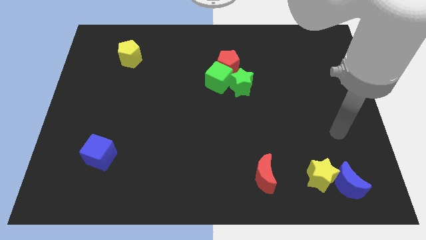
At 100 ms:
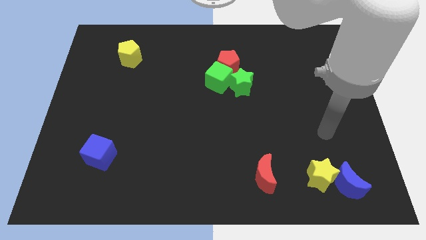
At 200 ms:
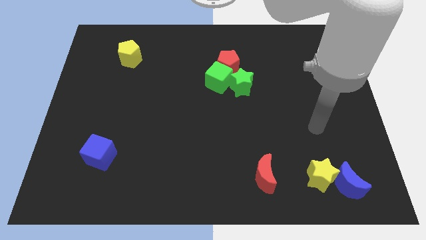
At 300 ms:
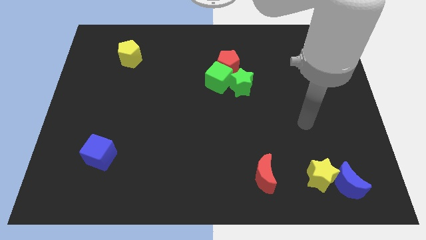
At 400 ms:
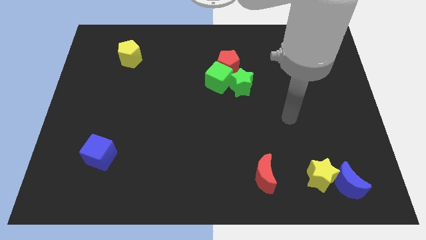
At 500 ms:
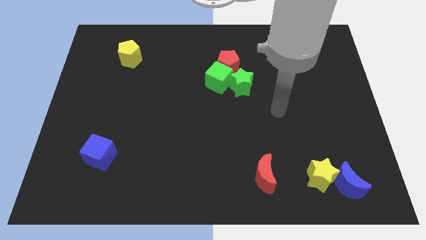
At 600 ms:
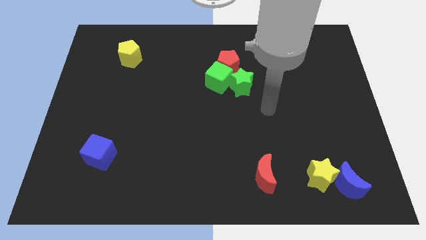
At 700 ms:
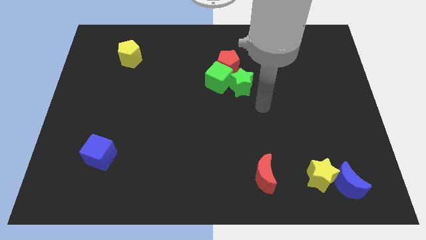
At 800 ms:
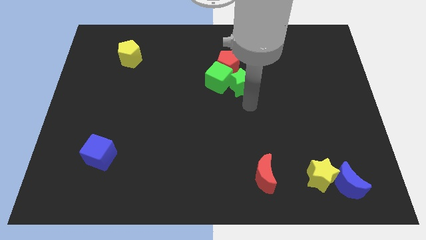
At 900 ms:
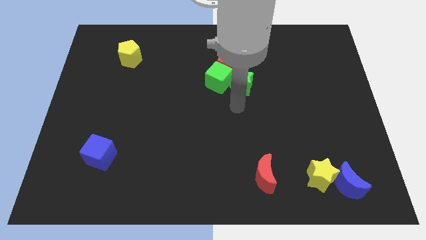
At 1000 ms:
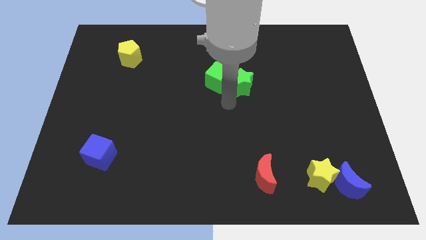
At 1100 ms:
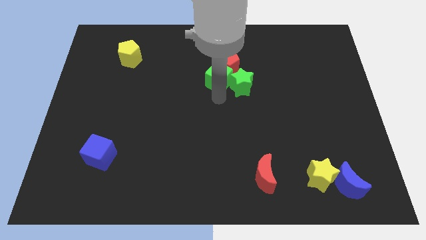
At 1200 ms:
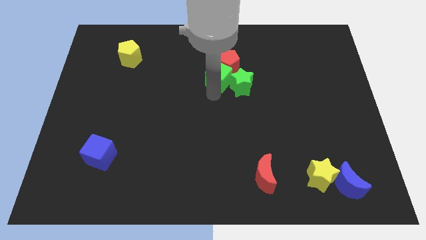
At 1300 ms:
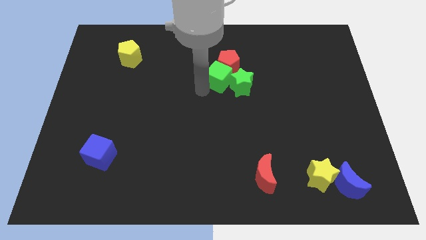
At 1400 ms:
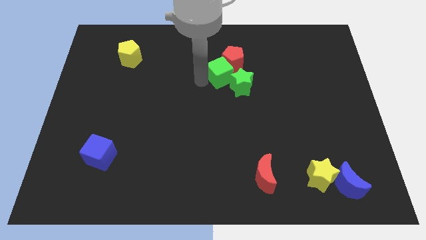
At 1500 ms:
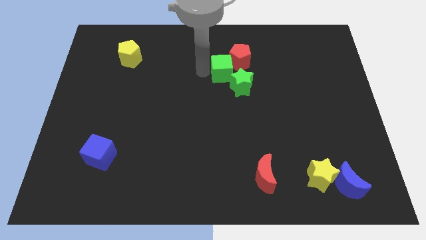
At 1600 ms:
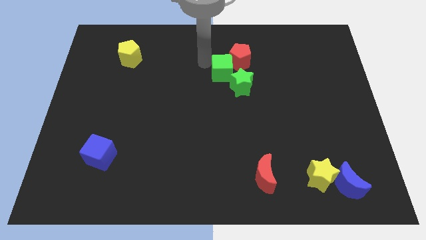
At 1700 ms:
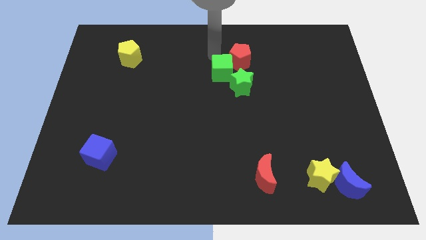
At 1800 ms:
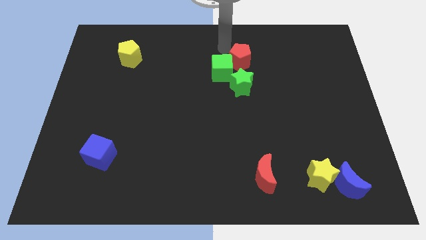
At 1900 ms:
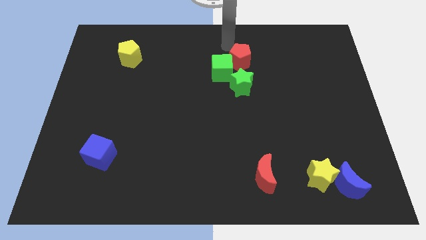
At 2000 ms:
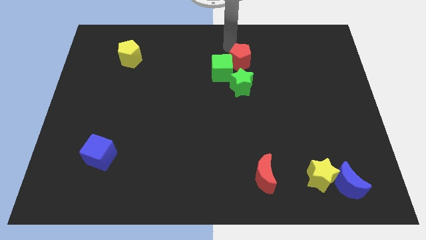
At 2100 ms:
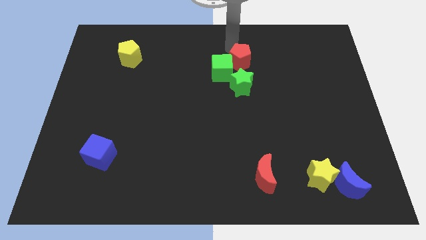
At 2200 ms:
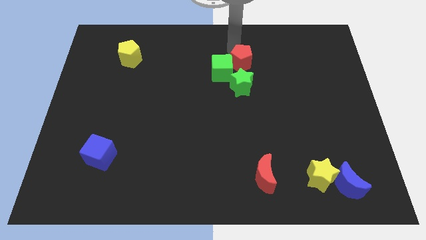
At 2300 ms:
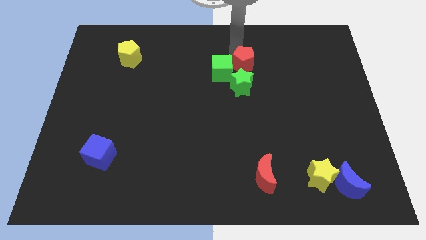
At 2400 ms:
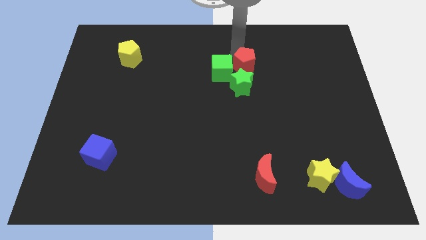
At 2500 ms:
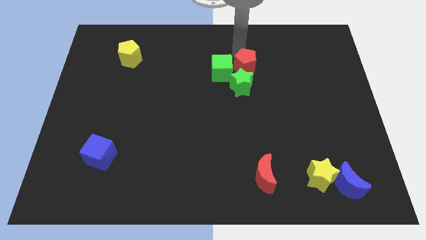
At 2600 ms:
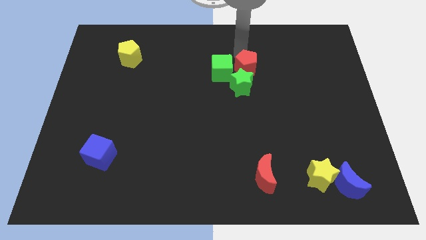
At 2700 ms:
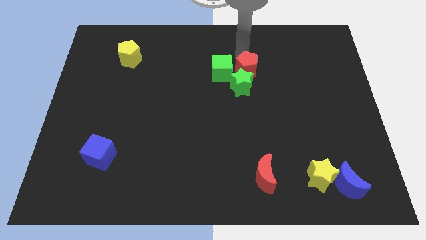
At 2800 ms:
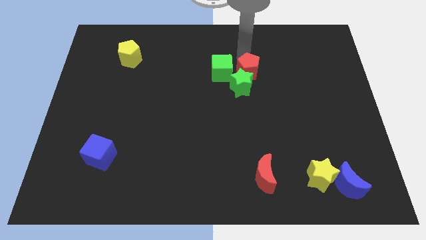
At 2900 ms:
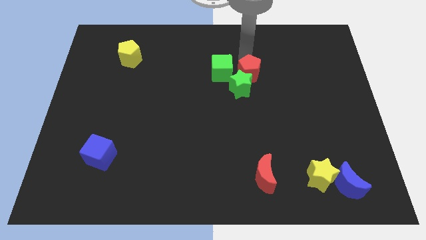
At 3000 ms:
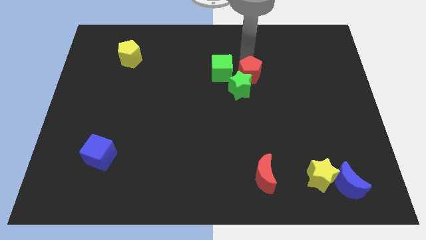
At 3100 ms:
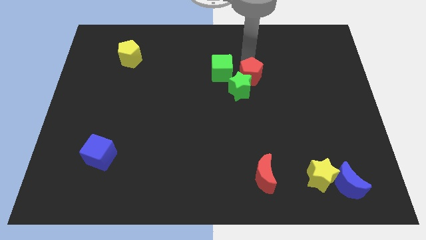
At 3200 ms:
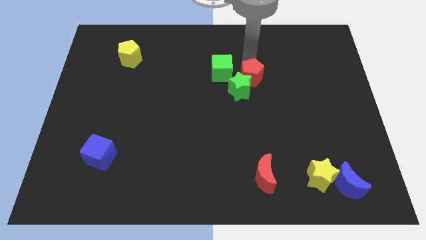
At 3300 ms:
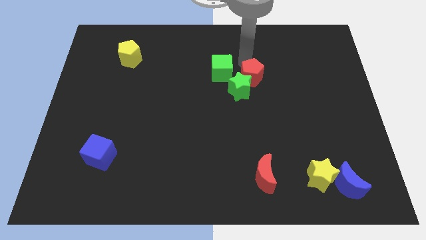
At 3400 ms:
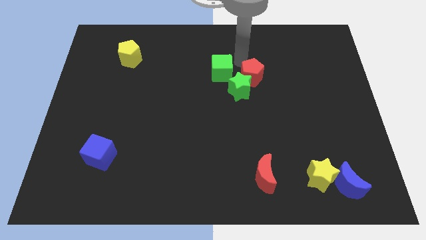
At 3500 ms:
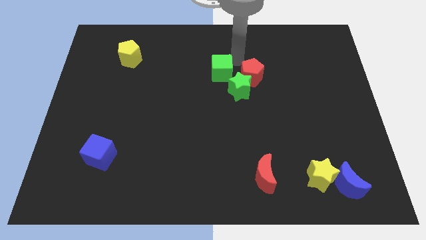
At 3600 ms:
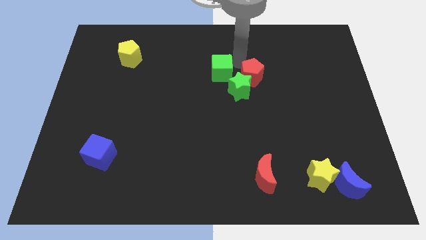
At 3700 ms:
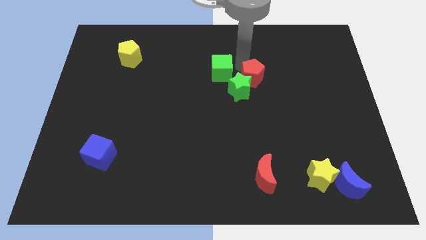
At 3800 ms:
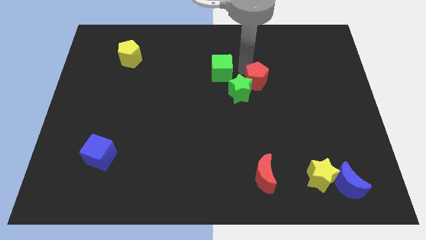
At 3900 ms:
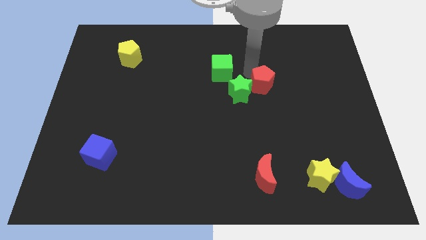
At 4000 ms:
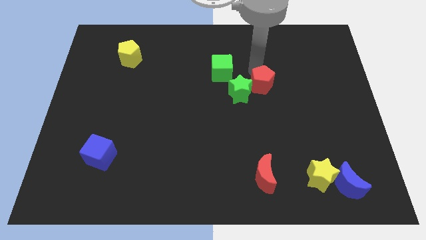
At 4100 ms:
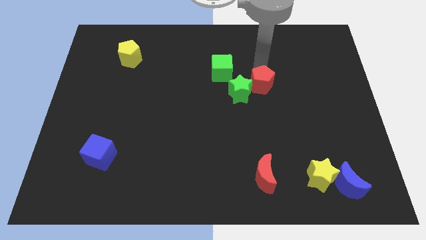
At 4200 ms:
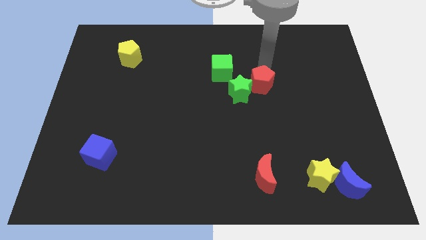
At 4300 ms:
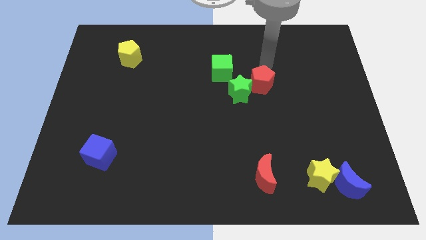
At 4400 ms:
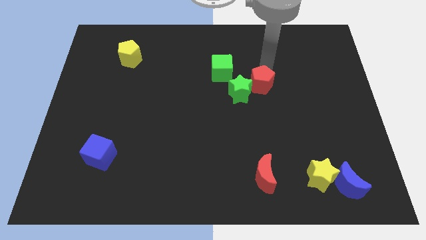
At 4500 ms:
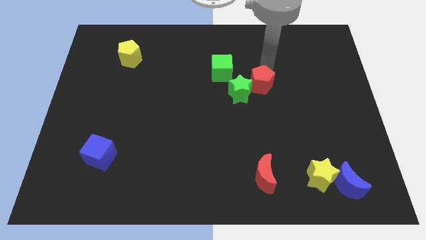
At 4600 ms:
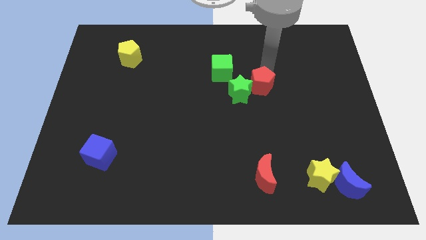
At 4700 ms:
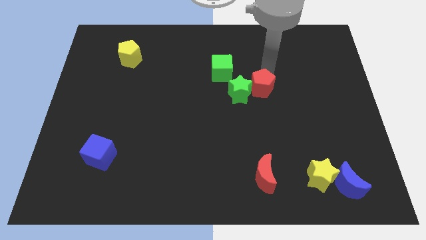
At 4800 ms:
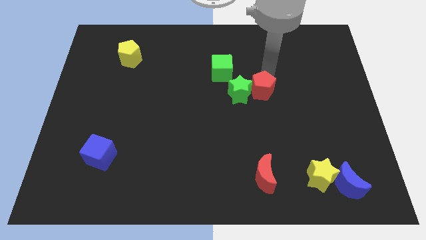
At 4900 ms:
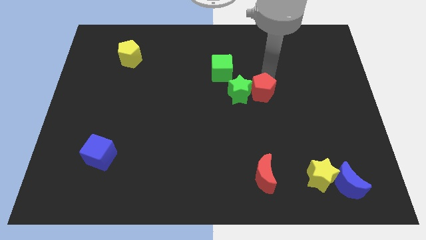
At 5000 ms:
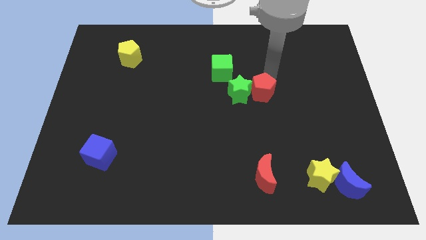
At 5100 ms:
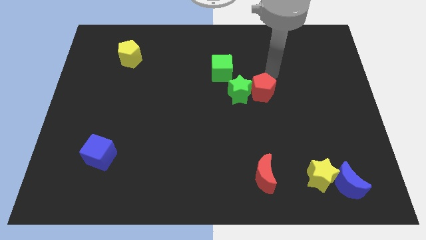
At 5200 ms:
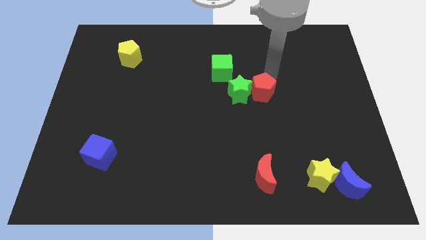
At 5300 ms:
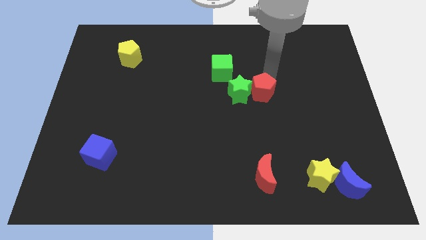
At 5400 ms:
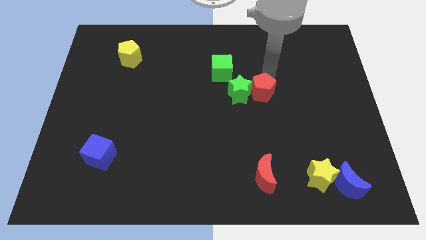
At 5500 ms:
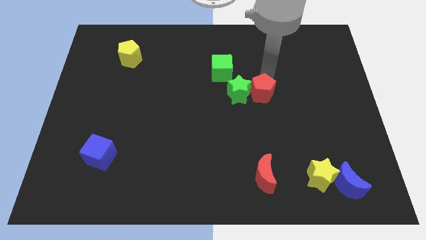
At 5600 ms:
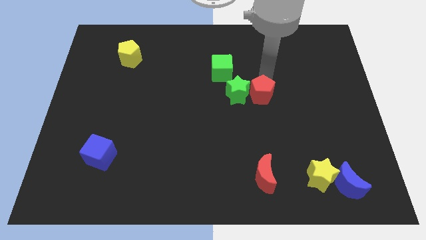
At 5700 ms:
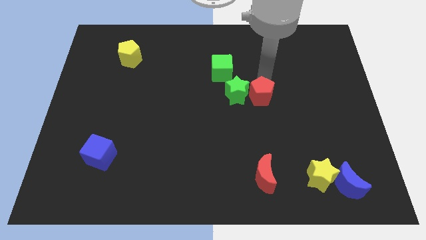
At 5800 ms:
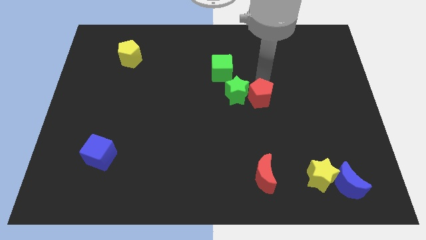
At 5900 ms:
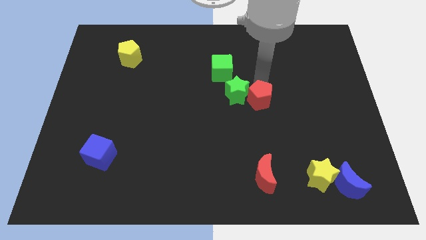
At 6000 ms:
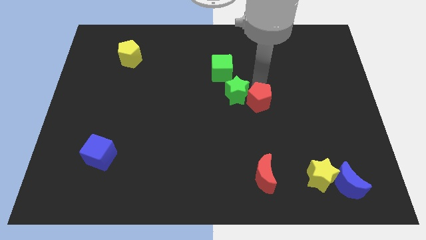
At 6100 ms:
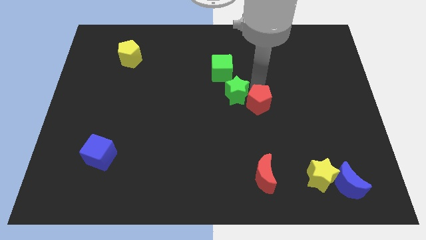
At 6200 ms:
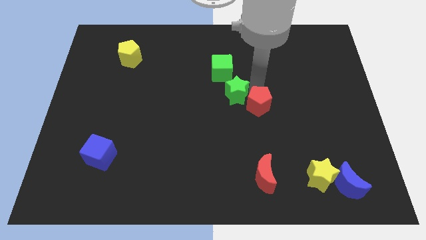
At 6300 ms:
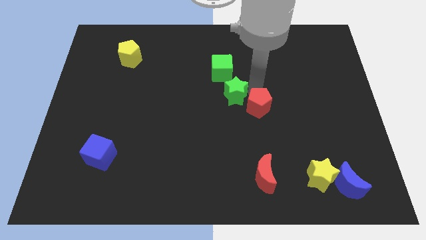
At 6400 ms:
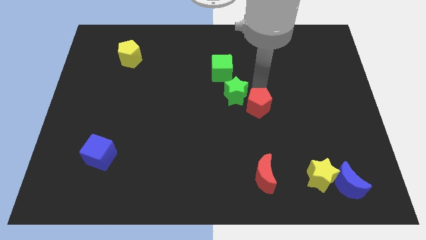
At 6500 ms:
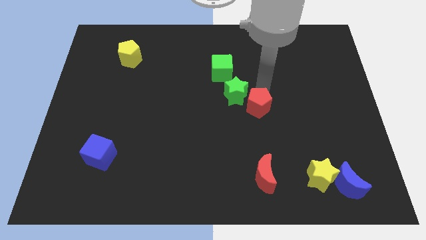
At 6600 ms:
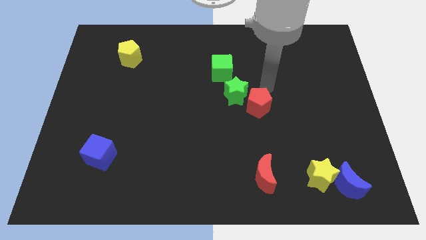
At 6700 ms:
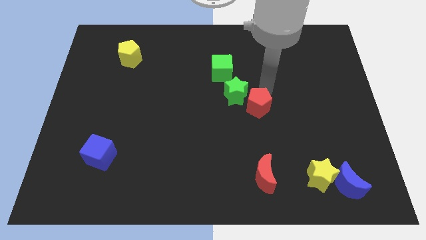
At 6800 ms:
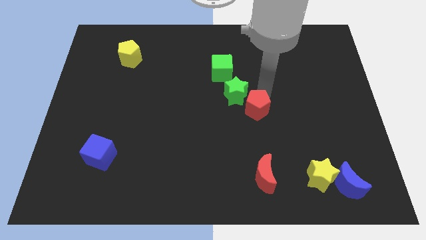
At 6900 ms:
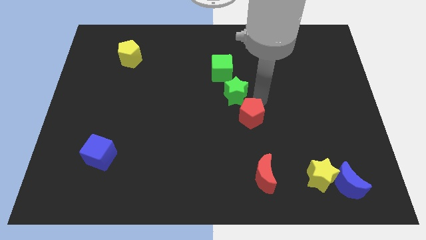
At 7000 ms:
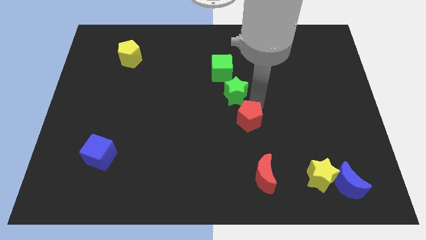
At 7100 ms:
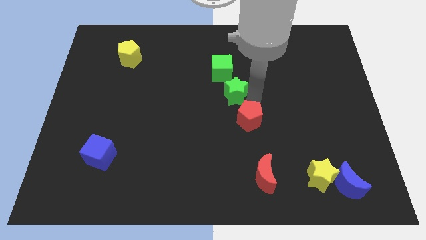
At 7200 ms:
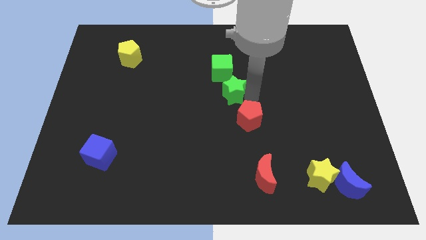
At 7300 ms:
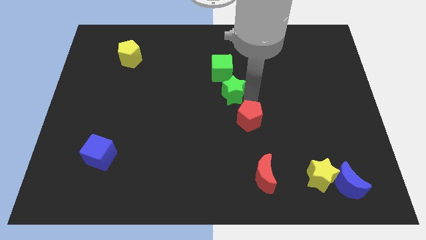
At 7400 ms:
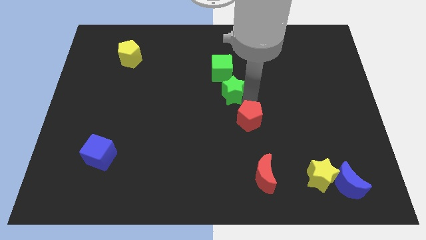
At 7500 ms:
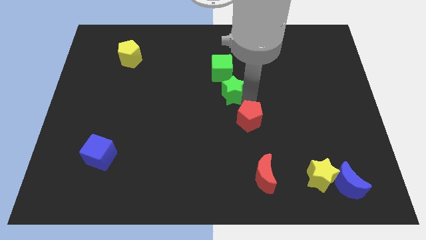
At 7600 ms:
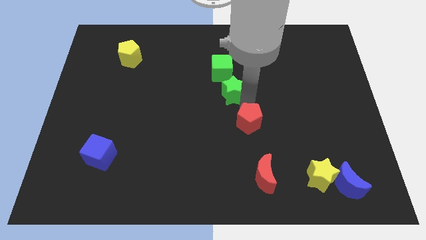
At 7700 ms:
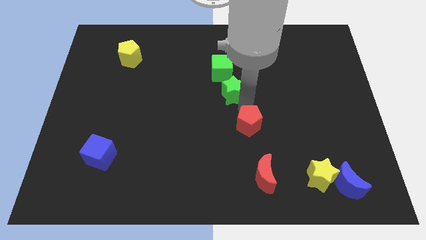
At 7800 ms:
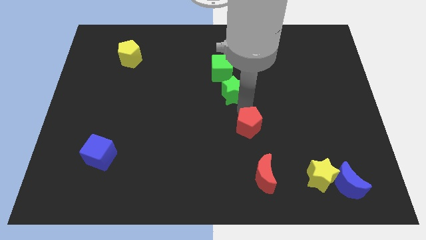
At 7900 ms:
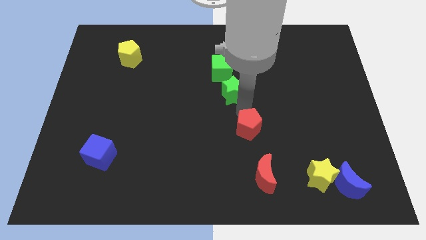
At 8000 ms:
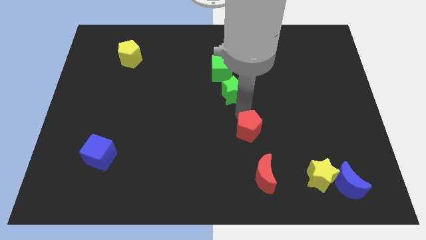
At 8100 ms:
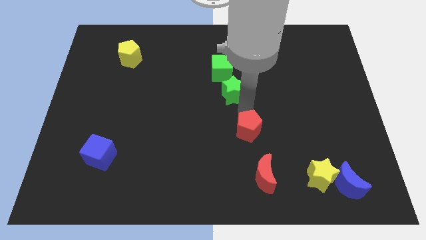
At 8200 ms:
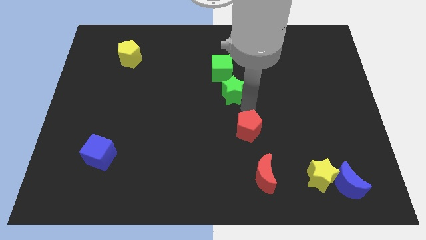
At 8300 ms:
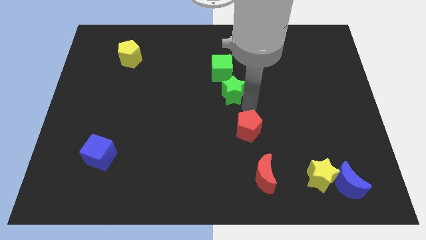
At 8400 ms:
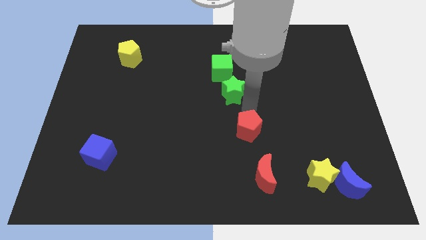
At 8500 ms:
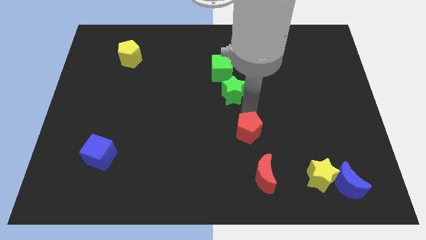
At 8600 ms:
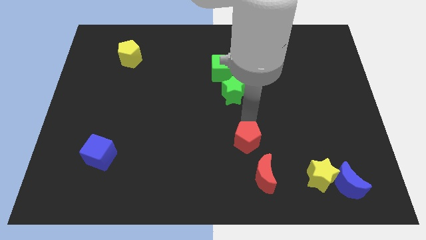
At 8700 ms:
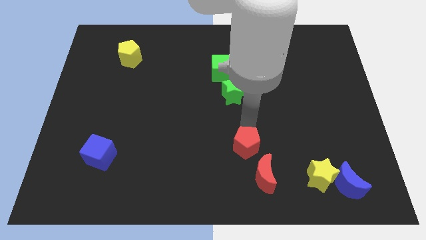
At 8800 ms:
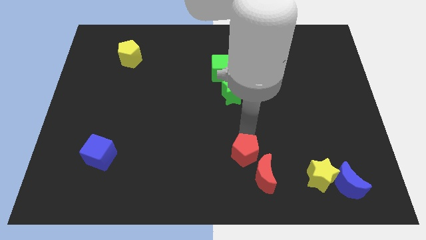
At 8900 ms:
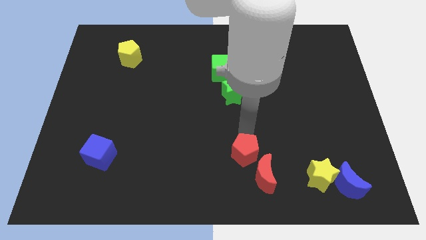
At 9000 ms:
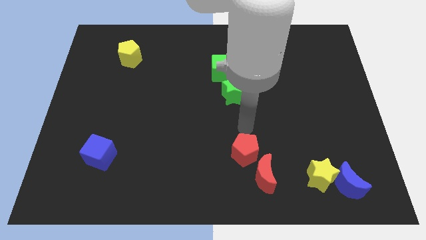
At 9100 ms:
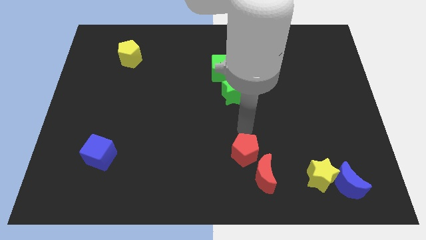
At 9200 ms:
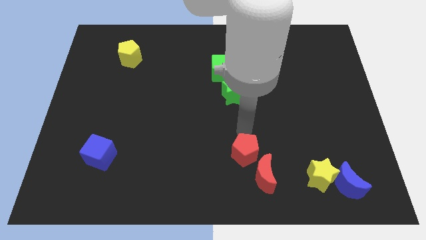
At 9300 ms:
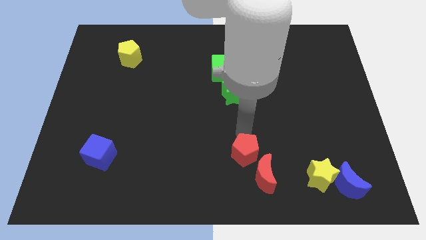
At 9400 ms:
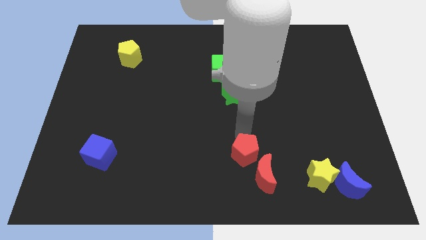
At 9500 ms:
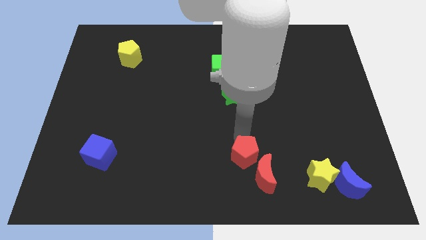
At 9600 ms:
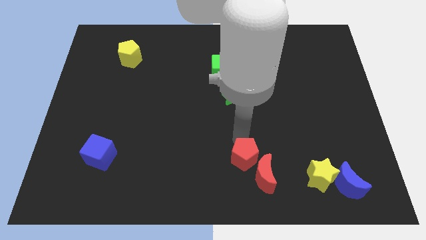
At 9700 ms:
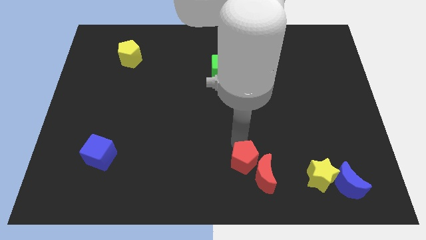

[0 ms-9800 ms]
slide the red pentagon to the bottom
